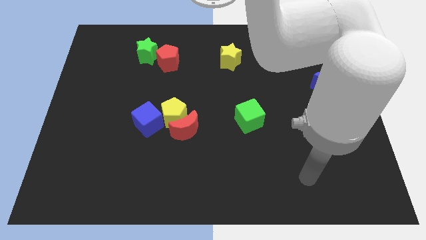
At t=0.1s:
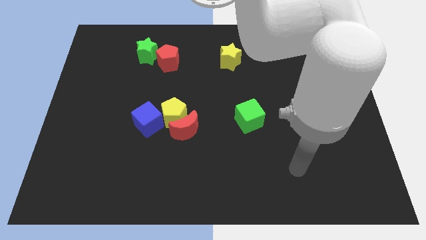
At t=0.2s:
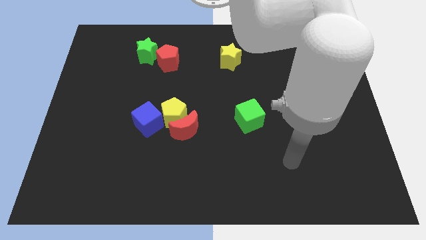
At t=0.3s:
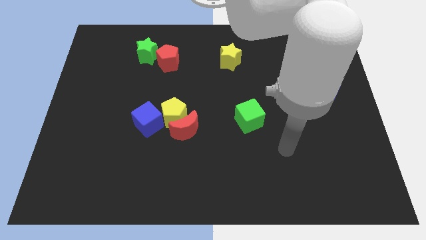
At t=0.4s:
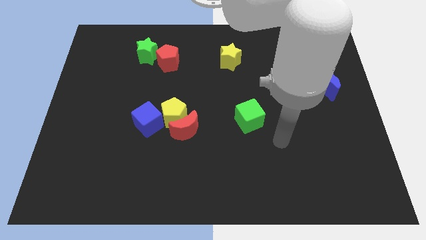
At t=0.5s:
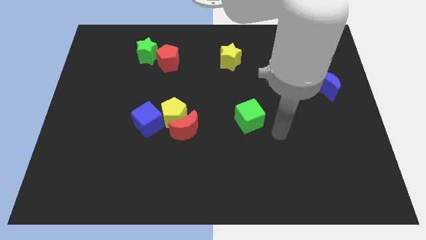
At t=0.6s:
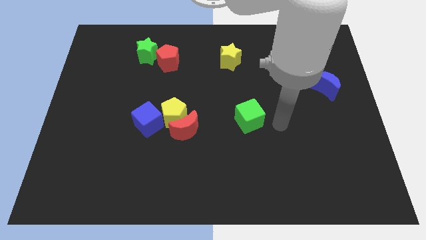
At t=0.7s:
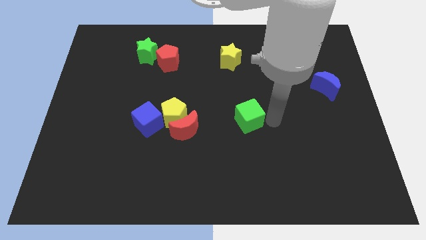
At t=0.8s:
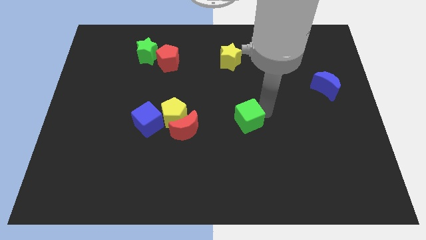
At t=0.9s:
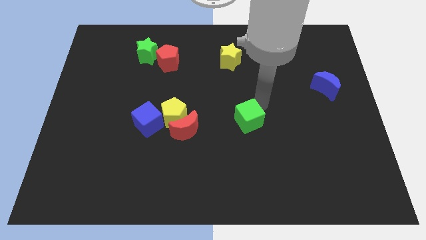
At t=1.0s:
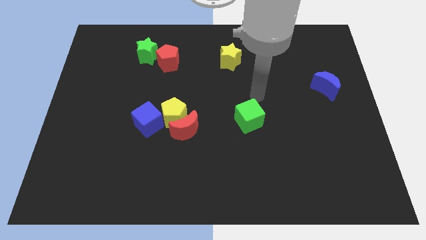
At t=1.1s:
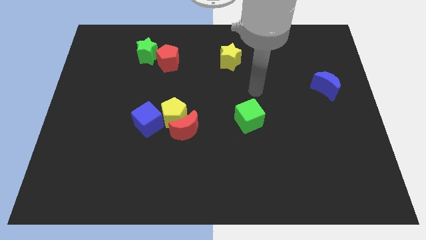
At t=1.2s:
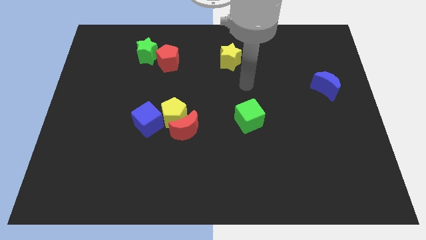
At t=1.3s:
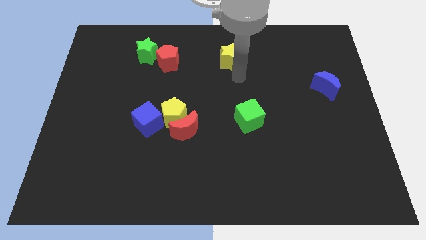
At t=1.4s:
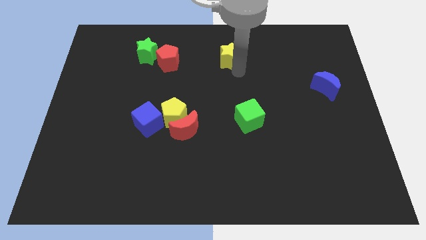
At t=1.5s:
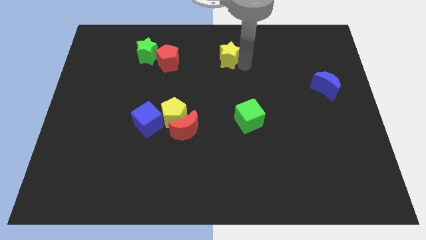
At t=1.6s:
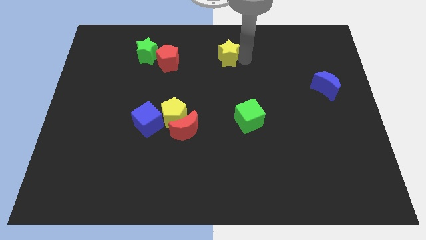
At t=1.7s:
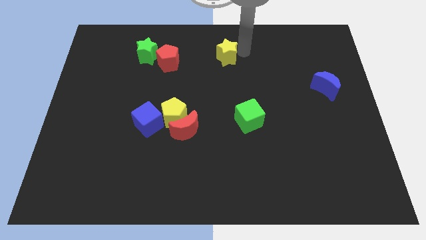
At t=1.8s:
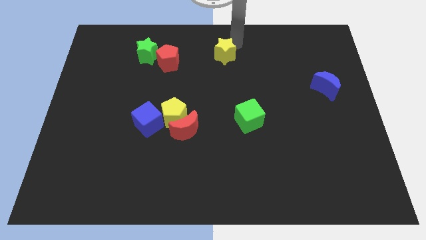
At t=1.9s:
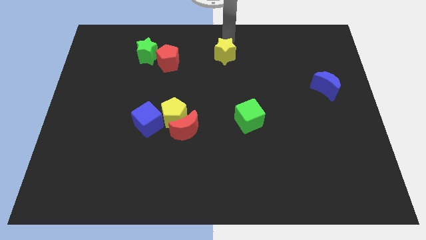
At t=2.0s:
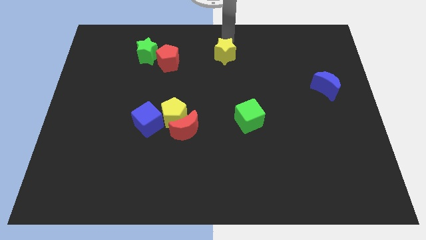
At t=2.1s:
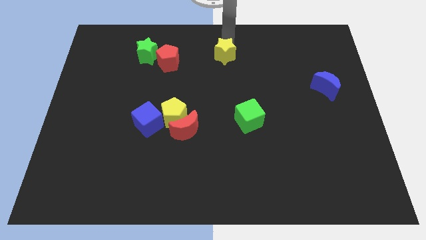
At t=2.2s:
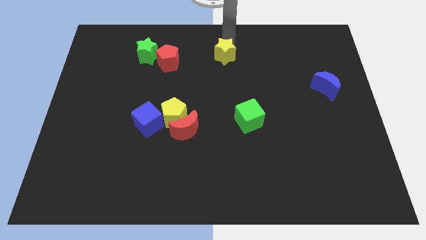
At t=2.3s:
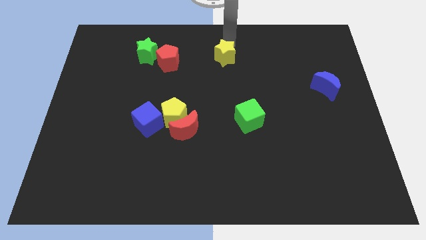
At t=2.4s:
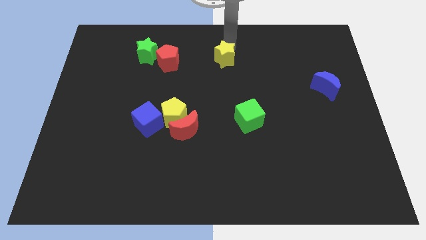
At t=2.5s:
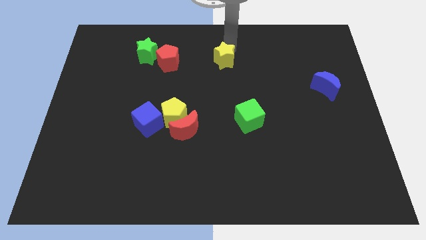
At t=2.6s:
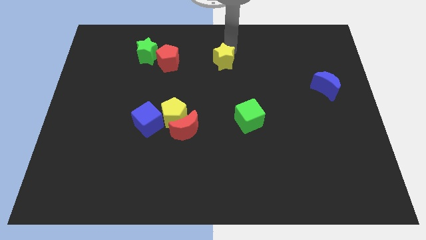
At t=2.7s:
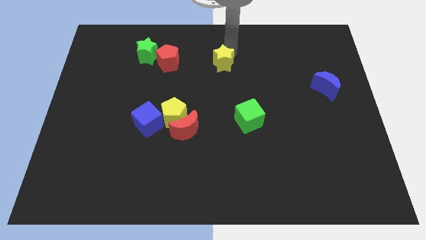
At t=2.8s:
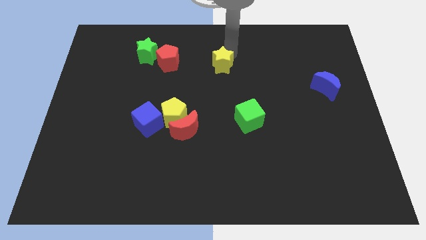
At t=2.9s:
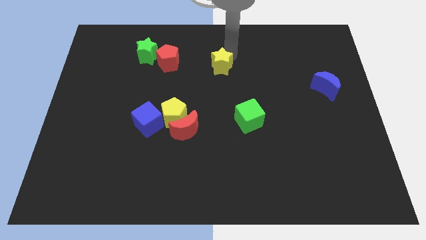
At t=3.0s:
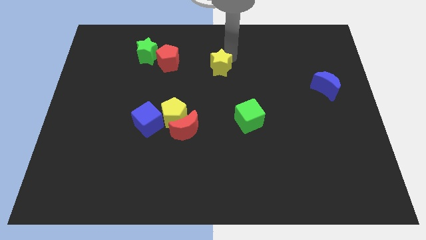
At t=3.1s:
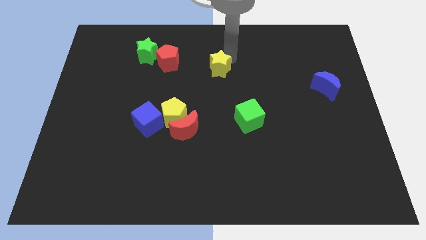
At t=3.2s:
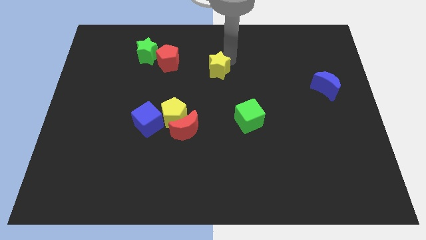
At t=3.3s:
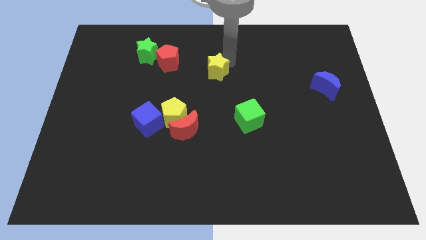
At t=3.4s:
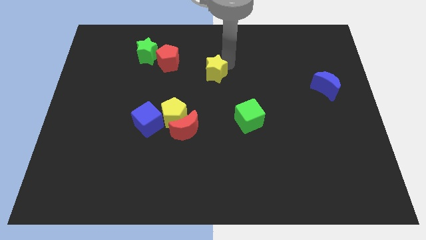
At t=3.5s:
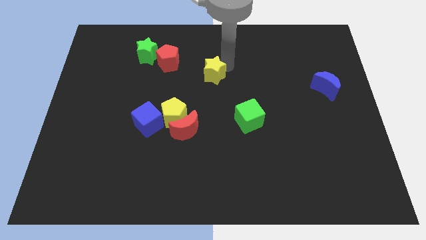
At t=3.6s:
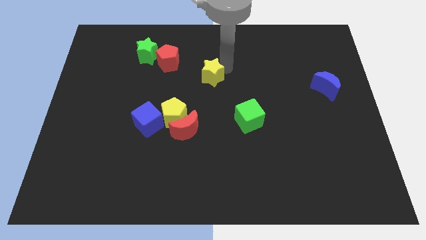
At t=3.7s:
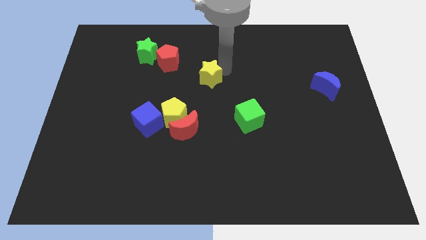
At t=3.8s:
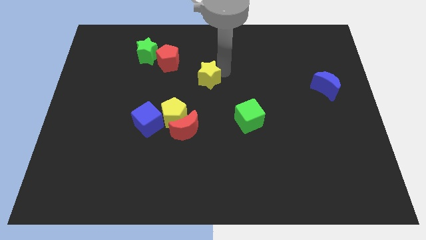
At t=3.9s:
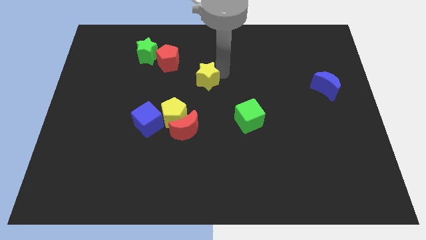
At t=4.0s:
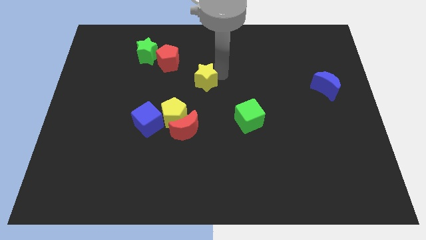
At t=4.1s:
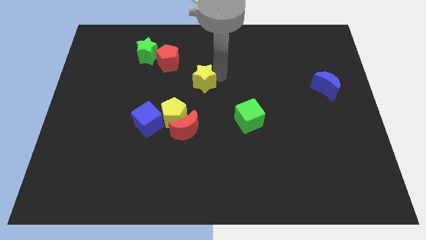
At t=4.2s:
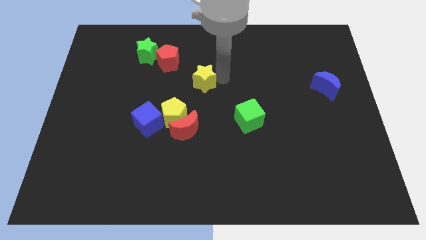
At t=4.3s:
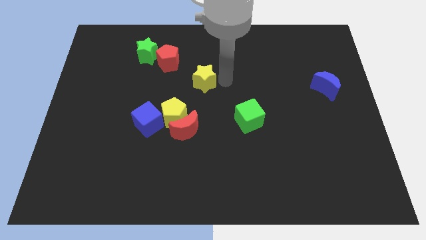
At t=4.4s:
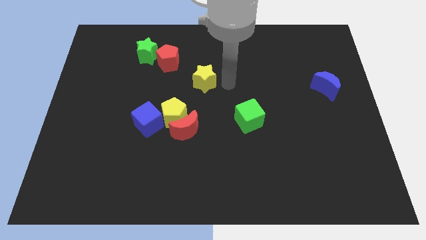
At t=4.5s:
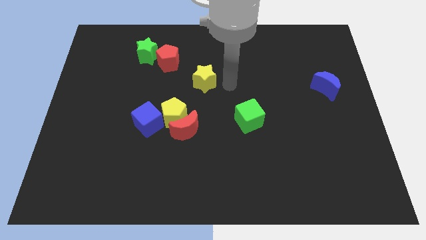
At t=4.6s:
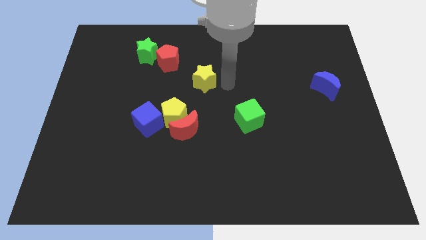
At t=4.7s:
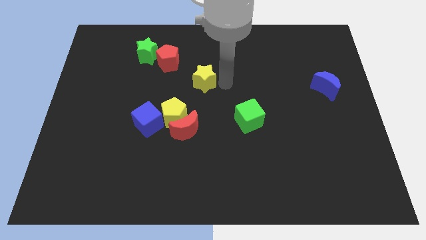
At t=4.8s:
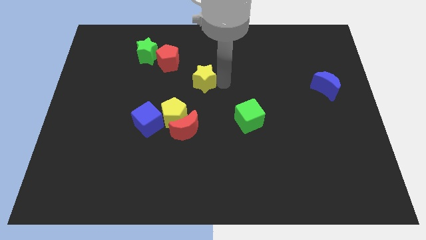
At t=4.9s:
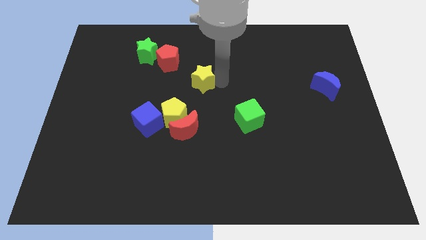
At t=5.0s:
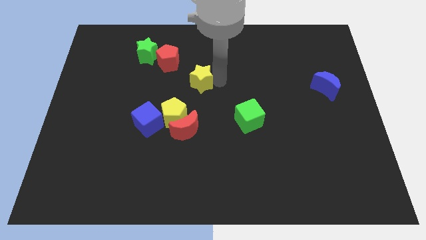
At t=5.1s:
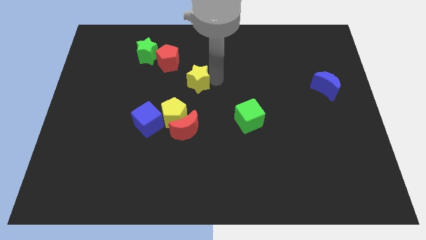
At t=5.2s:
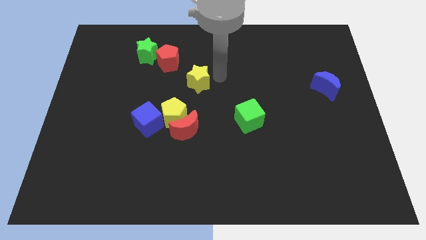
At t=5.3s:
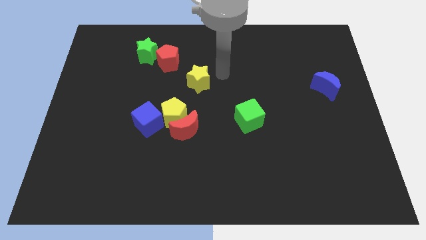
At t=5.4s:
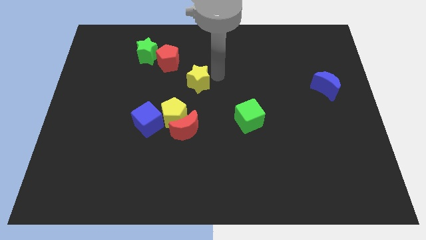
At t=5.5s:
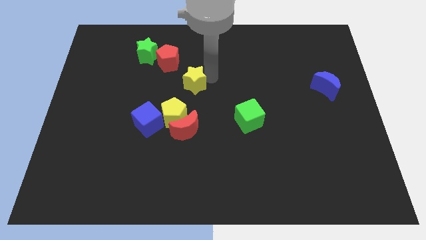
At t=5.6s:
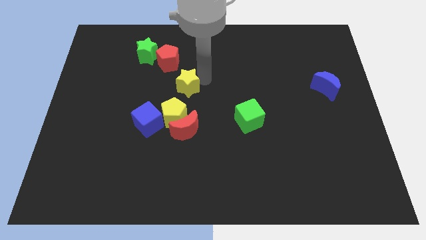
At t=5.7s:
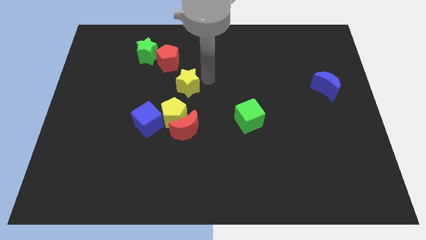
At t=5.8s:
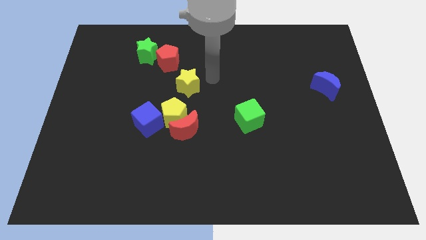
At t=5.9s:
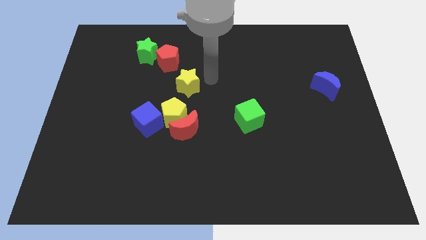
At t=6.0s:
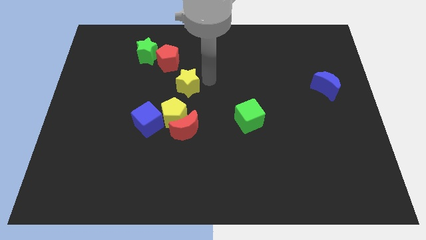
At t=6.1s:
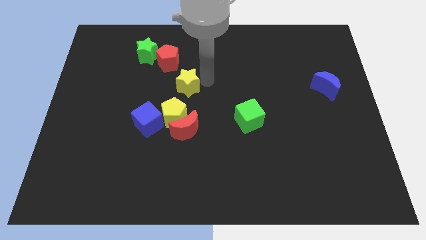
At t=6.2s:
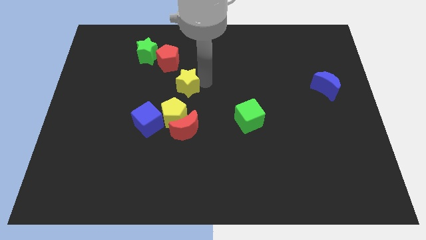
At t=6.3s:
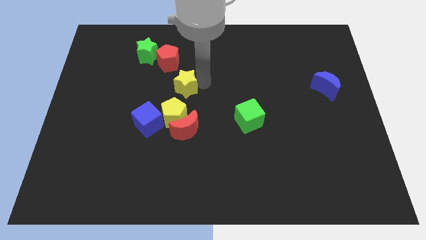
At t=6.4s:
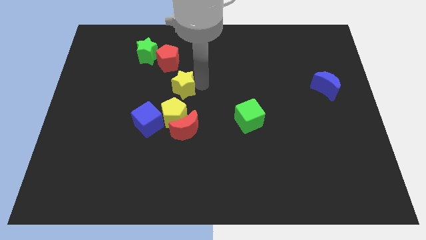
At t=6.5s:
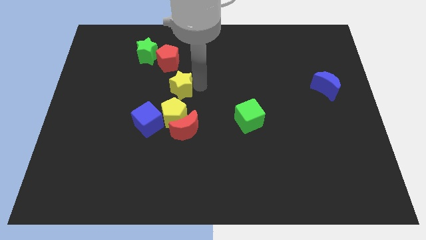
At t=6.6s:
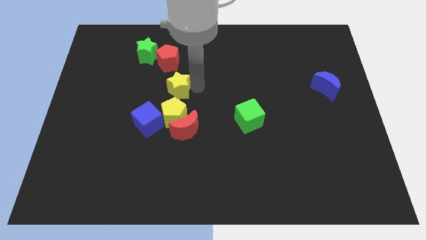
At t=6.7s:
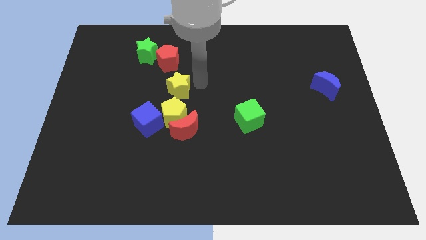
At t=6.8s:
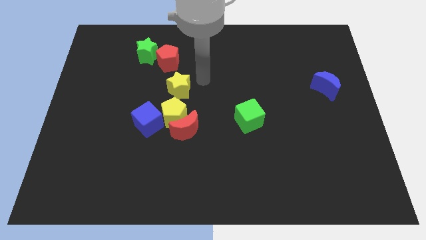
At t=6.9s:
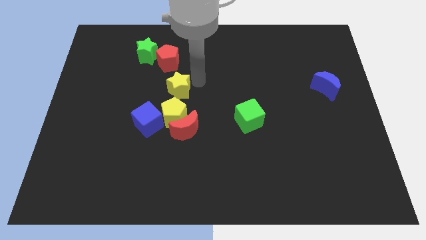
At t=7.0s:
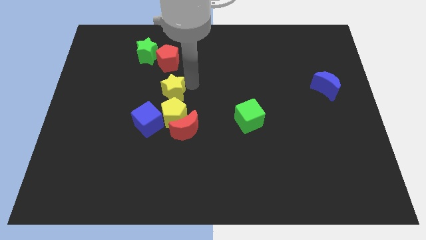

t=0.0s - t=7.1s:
move the yellow star to the top left of the yellow pentagon

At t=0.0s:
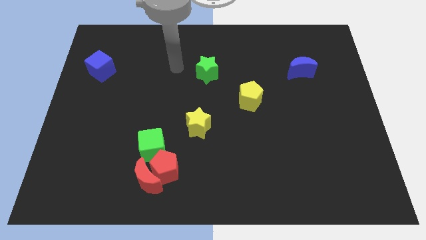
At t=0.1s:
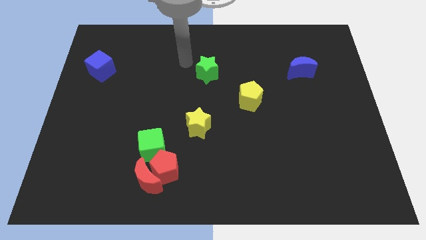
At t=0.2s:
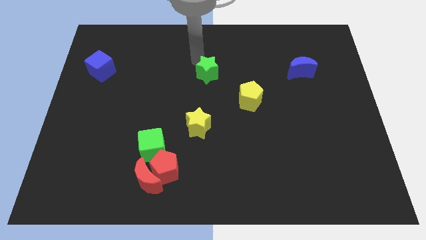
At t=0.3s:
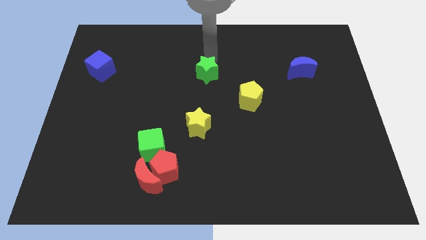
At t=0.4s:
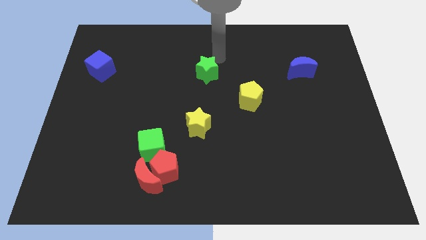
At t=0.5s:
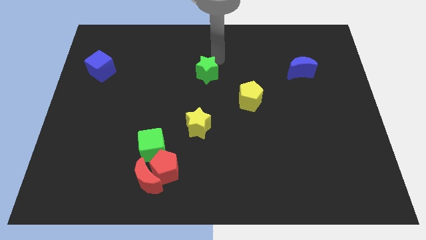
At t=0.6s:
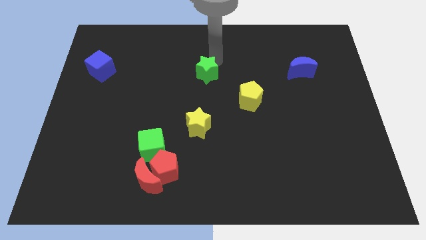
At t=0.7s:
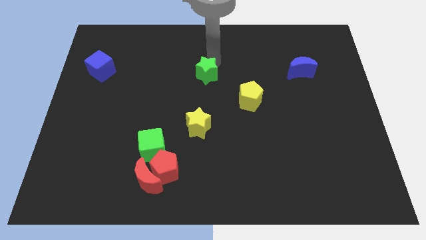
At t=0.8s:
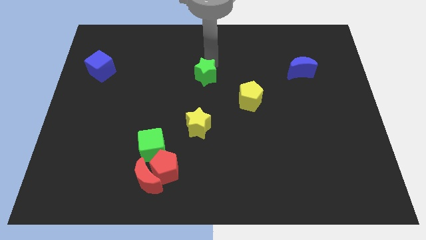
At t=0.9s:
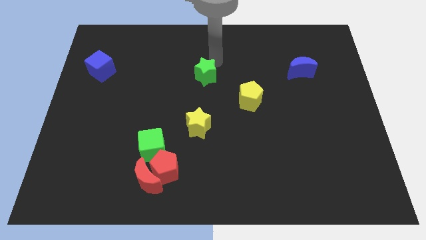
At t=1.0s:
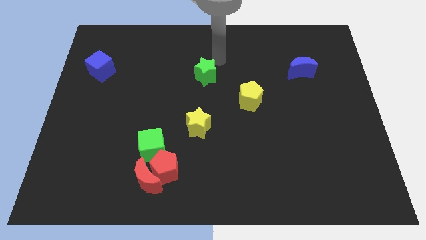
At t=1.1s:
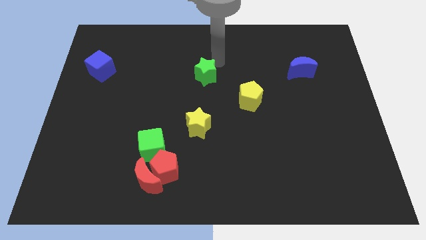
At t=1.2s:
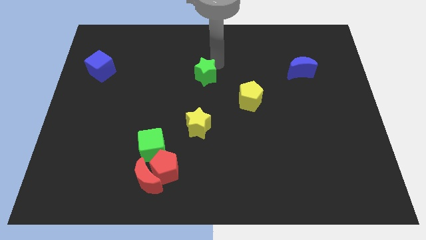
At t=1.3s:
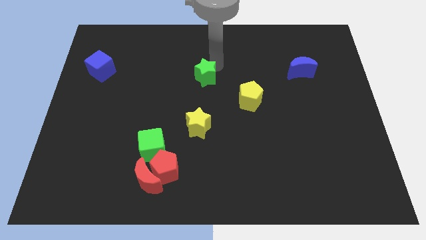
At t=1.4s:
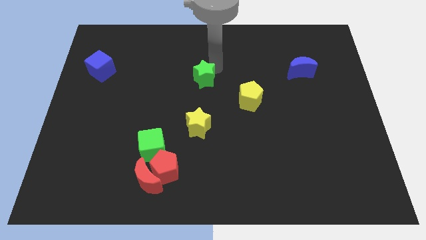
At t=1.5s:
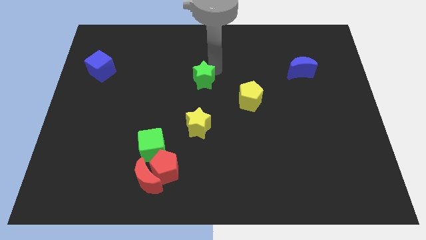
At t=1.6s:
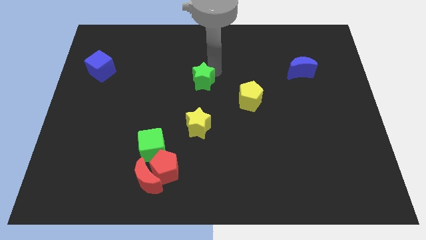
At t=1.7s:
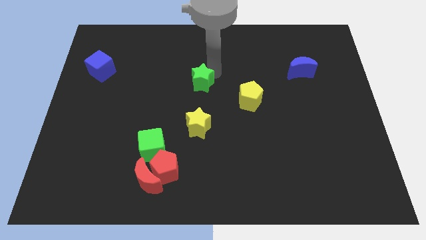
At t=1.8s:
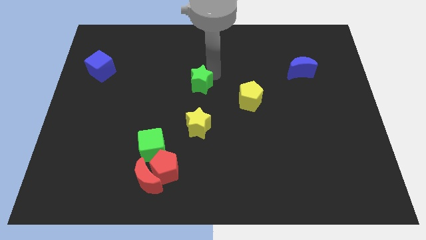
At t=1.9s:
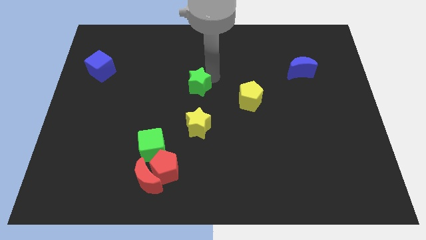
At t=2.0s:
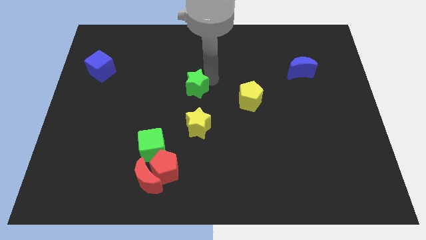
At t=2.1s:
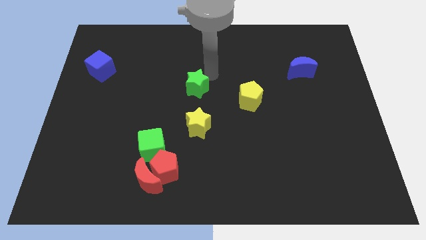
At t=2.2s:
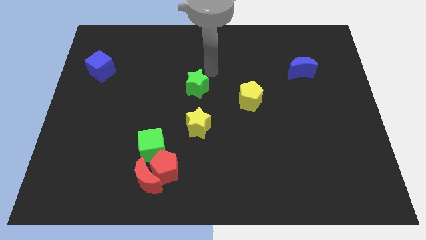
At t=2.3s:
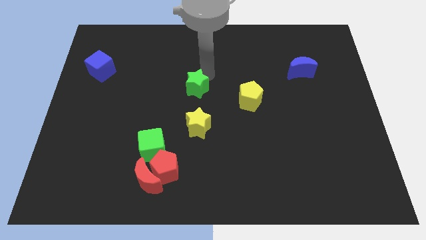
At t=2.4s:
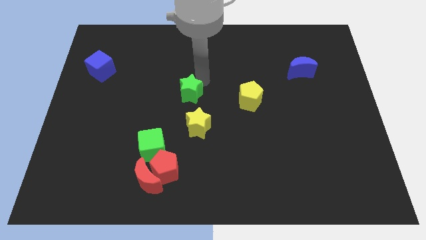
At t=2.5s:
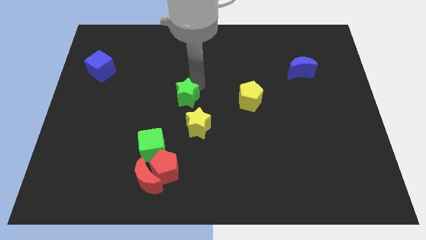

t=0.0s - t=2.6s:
move the green star to the top left of the yellow star
